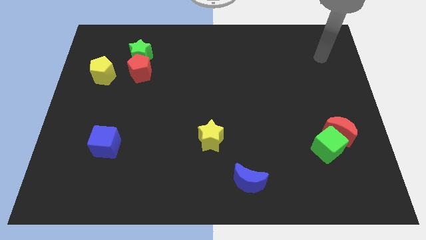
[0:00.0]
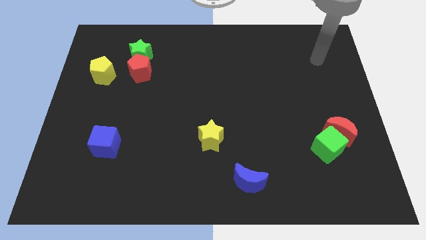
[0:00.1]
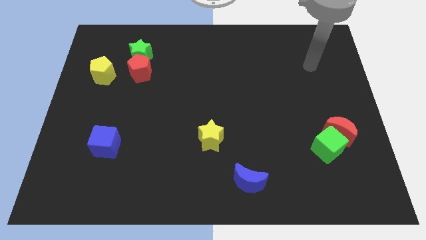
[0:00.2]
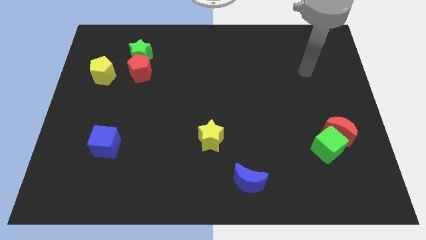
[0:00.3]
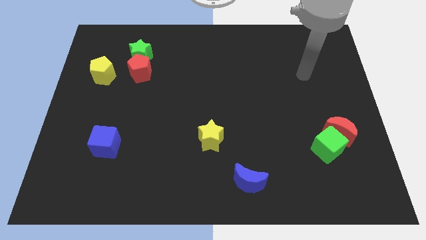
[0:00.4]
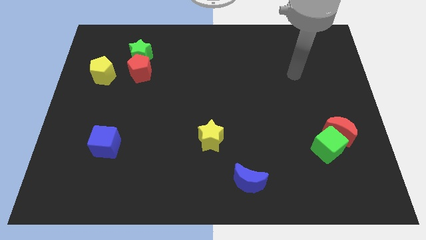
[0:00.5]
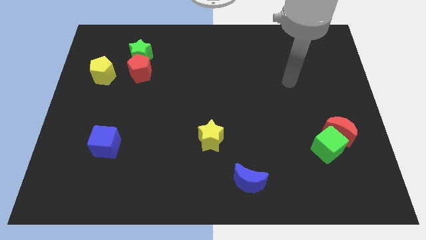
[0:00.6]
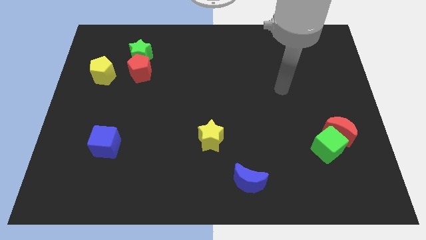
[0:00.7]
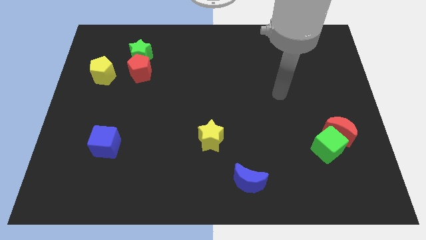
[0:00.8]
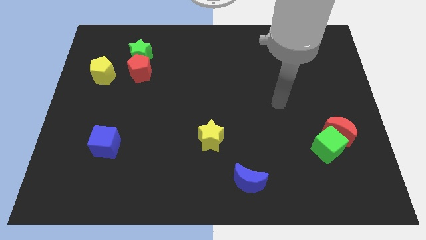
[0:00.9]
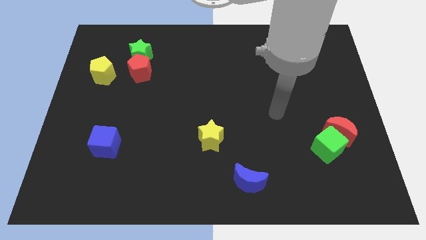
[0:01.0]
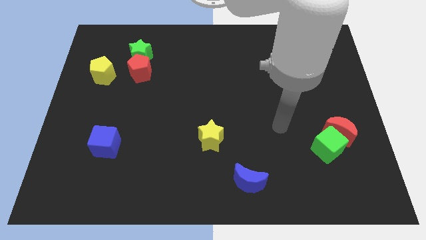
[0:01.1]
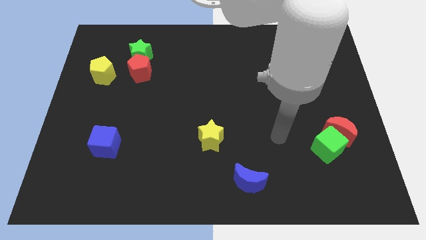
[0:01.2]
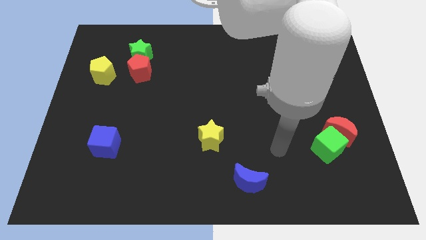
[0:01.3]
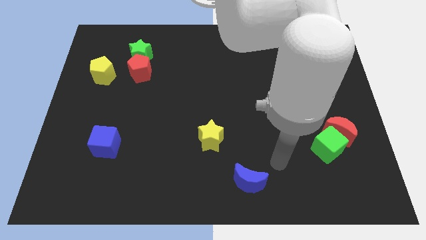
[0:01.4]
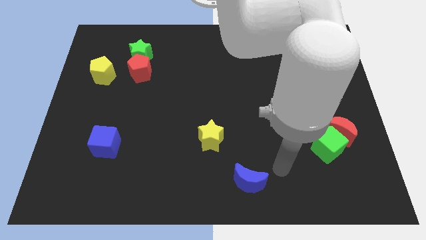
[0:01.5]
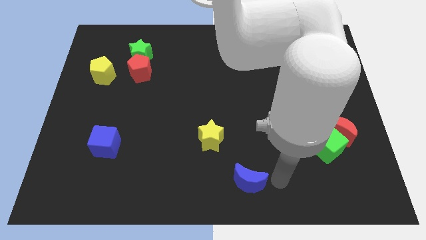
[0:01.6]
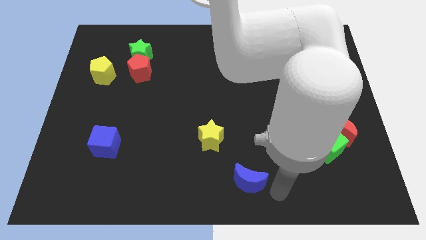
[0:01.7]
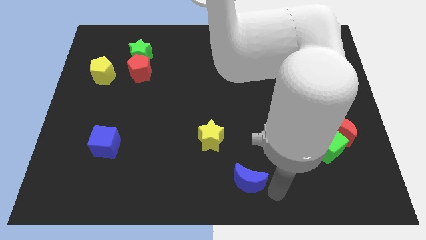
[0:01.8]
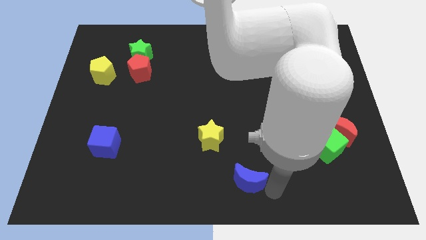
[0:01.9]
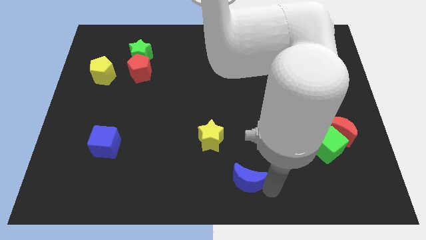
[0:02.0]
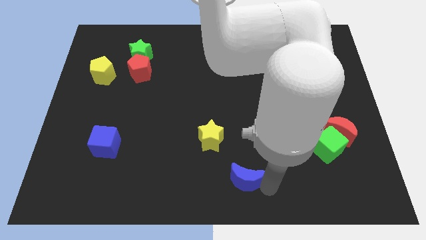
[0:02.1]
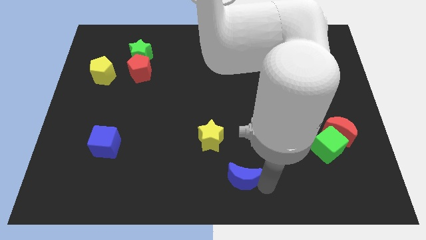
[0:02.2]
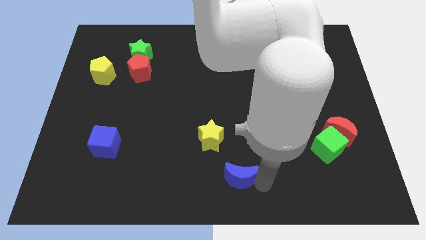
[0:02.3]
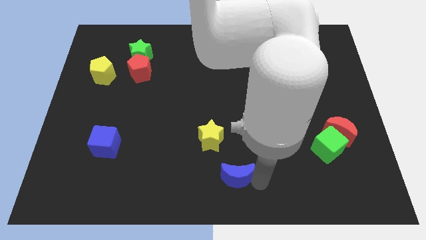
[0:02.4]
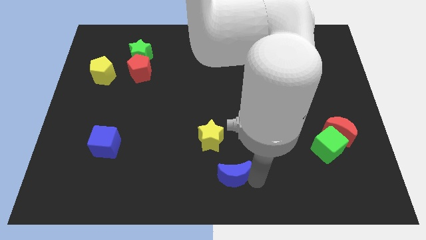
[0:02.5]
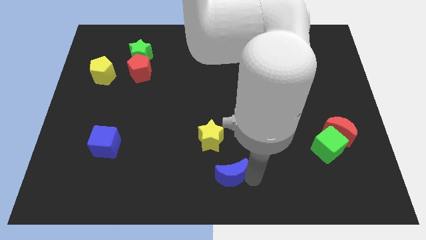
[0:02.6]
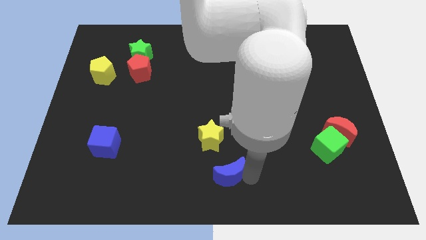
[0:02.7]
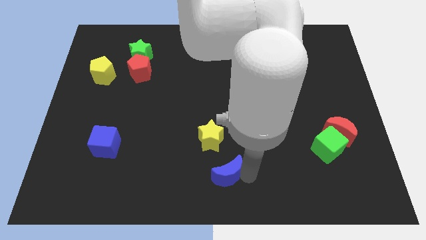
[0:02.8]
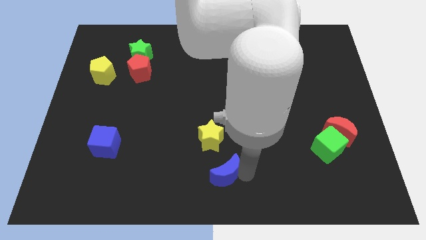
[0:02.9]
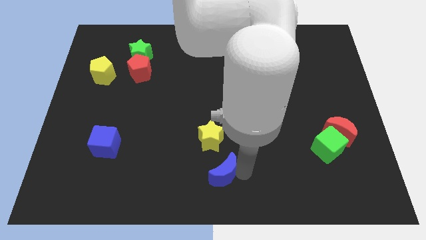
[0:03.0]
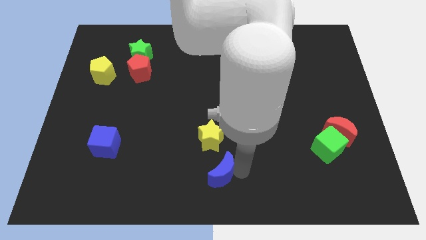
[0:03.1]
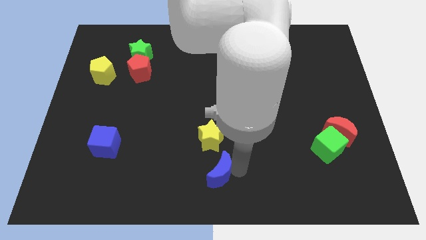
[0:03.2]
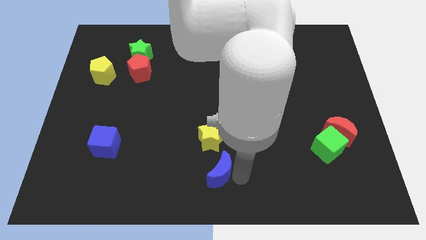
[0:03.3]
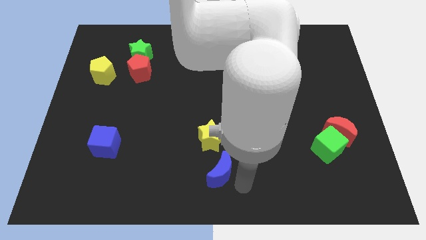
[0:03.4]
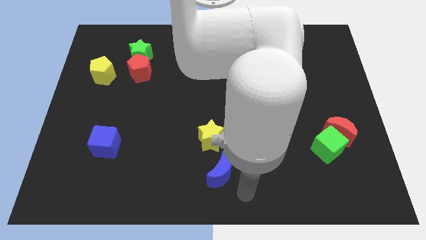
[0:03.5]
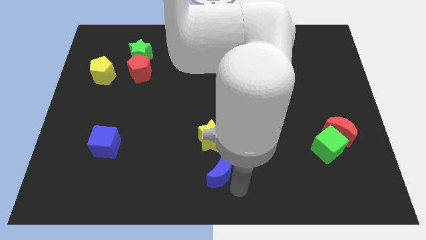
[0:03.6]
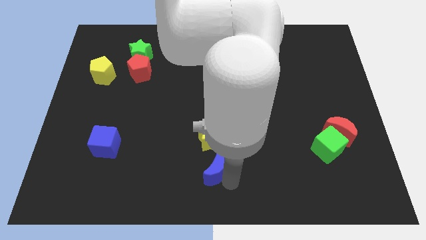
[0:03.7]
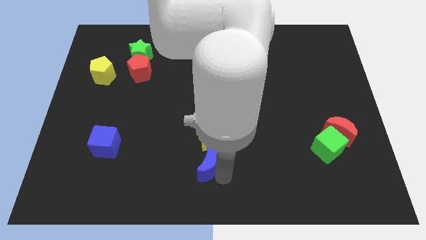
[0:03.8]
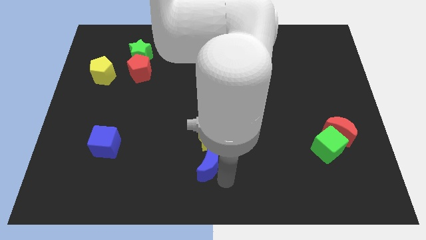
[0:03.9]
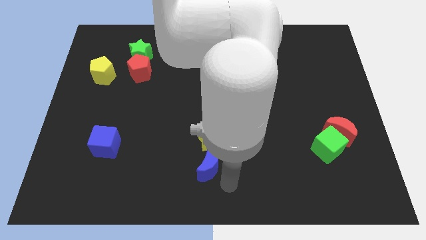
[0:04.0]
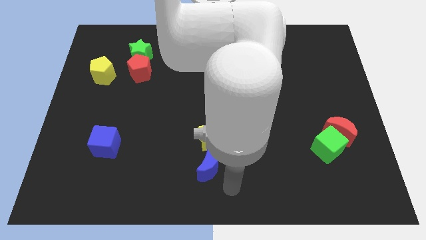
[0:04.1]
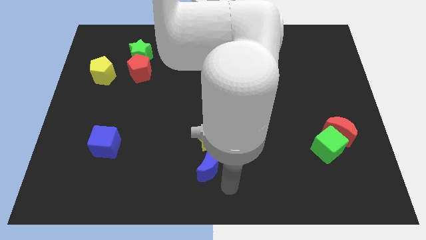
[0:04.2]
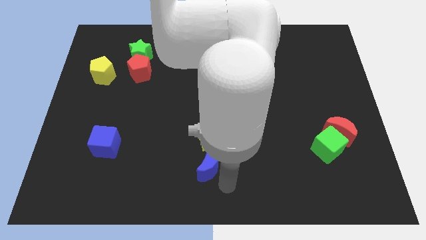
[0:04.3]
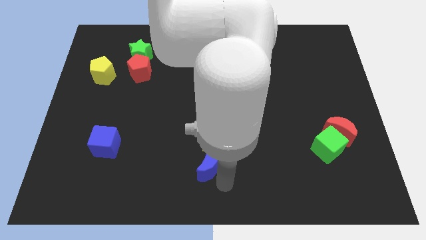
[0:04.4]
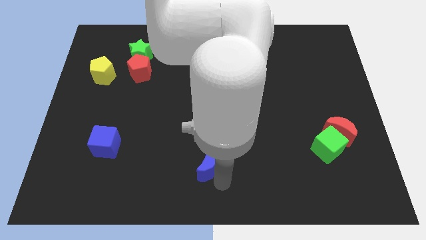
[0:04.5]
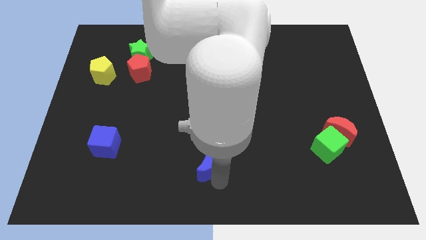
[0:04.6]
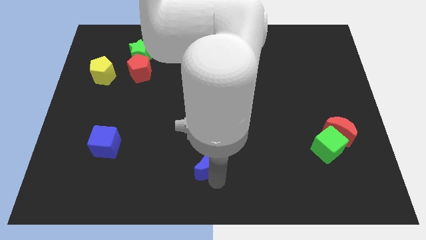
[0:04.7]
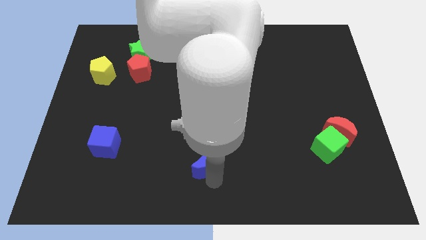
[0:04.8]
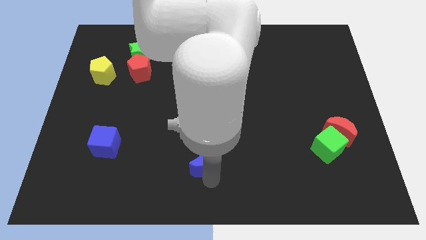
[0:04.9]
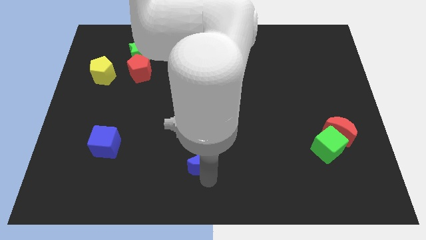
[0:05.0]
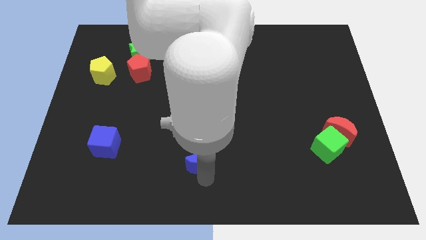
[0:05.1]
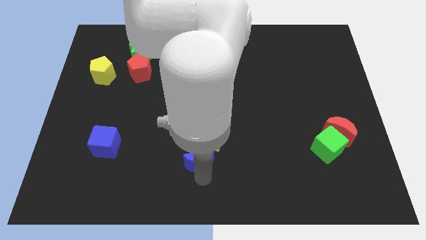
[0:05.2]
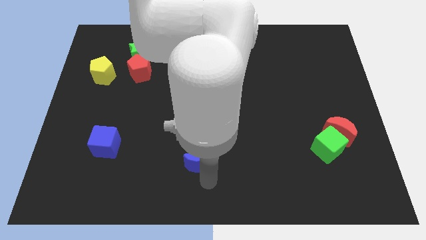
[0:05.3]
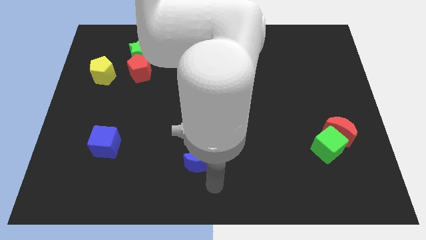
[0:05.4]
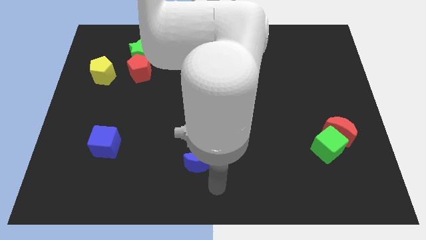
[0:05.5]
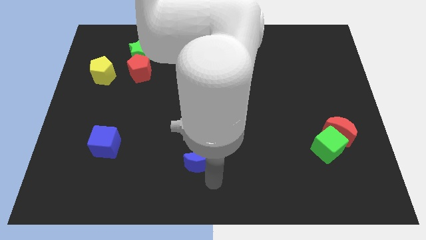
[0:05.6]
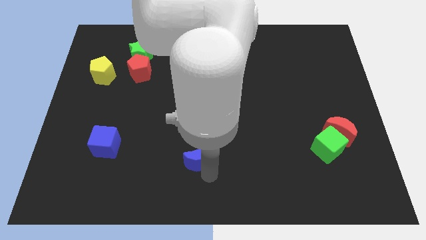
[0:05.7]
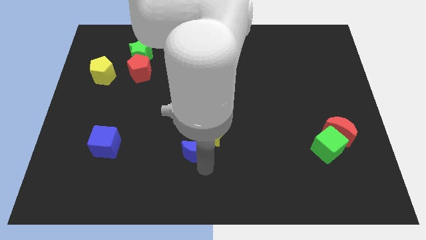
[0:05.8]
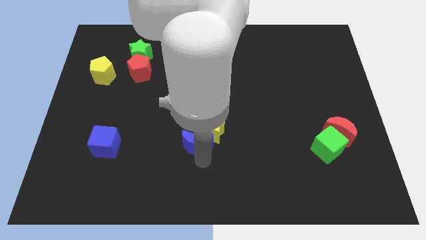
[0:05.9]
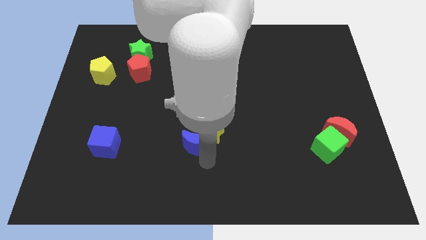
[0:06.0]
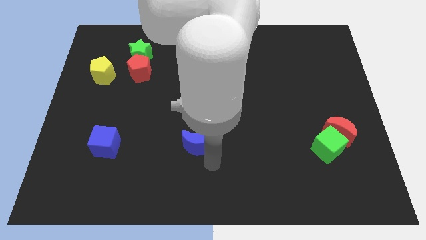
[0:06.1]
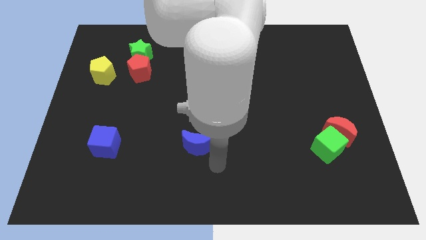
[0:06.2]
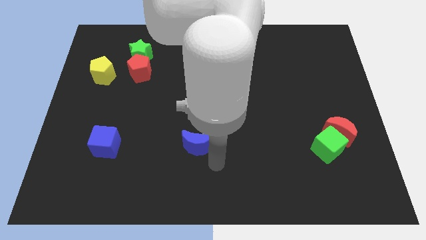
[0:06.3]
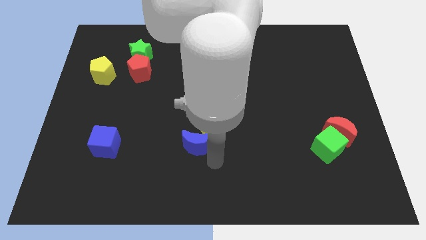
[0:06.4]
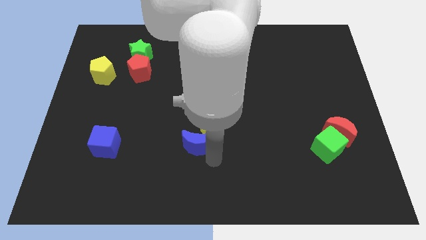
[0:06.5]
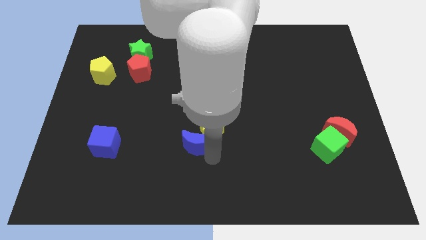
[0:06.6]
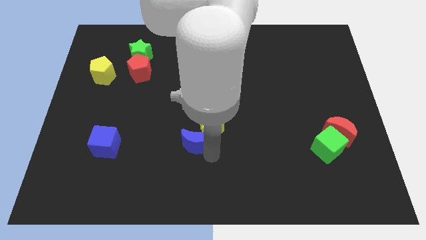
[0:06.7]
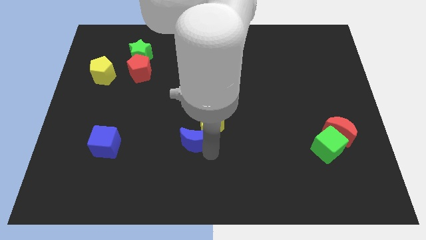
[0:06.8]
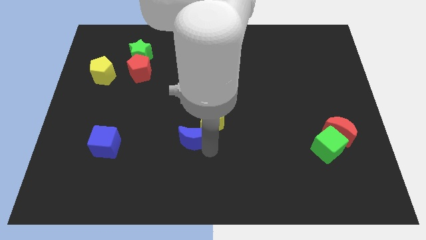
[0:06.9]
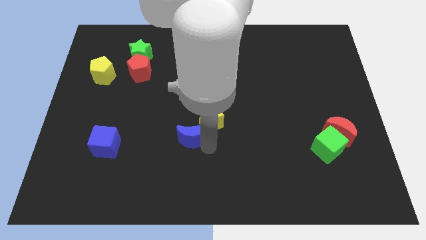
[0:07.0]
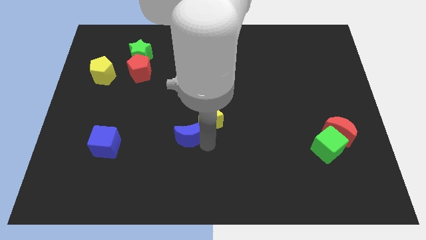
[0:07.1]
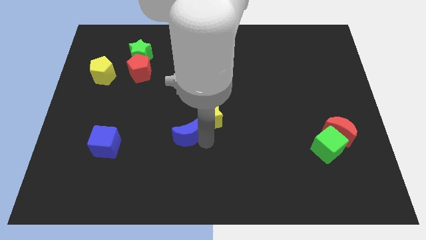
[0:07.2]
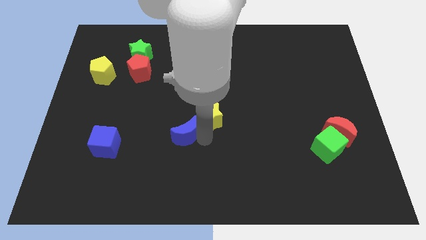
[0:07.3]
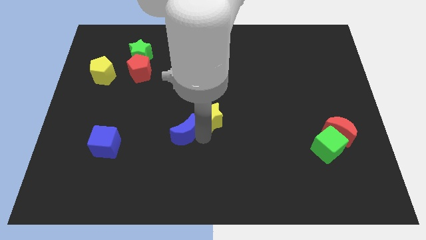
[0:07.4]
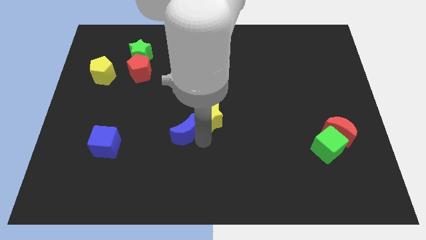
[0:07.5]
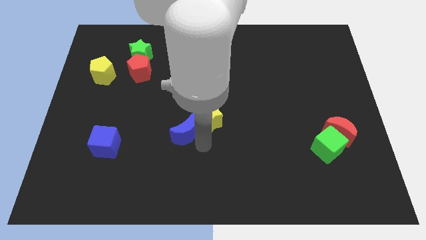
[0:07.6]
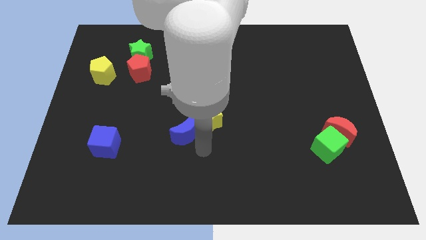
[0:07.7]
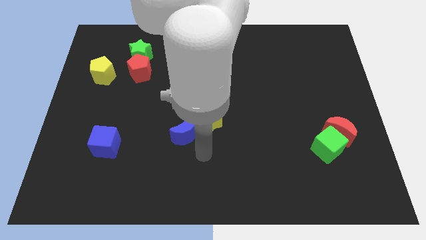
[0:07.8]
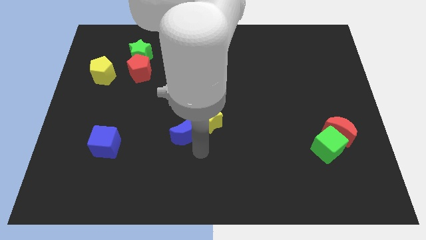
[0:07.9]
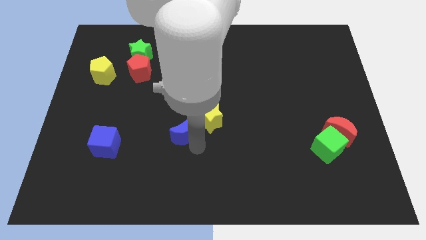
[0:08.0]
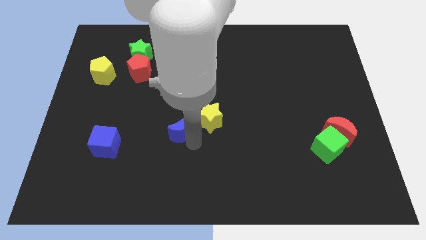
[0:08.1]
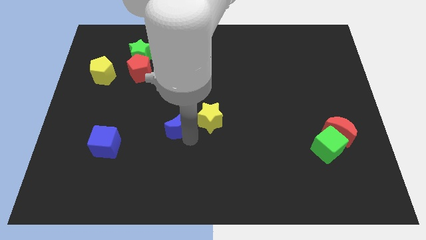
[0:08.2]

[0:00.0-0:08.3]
move the blue moon up and left
